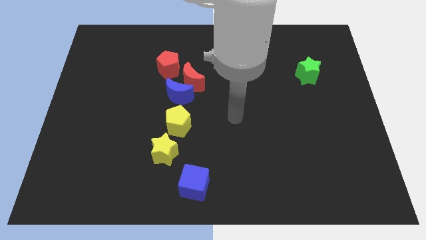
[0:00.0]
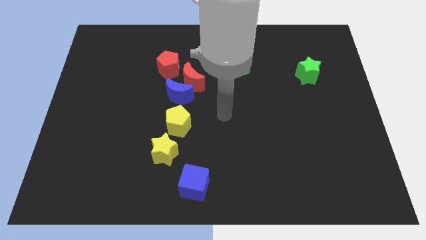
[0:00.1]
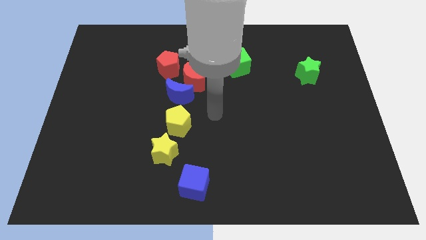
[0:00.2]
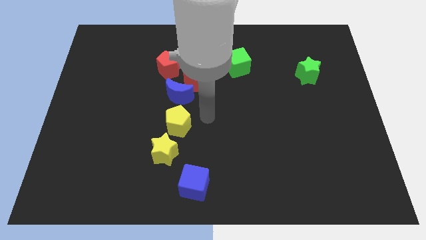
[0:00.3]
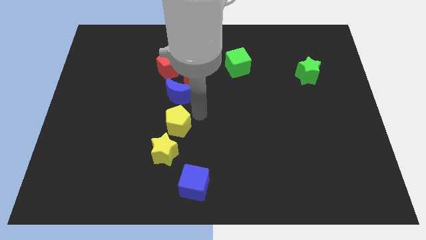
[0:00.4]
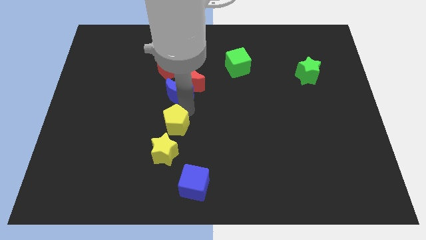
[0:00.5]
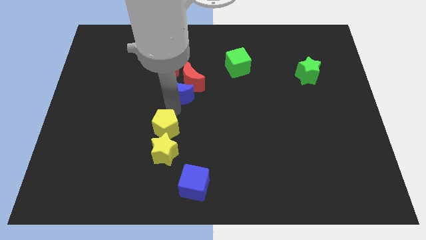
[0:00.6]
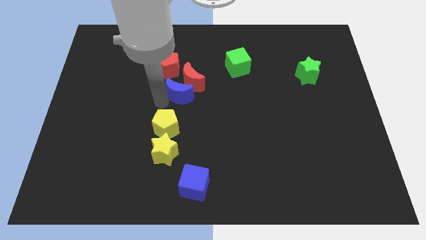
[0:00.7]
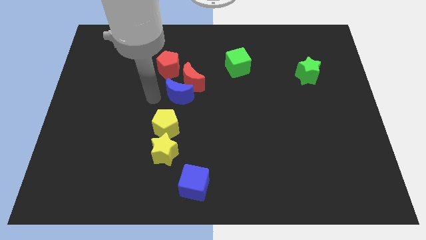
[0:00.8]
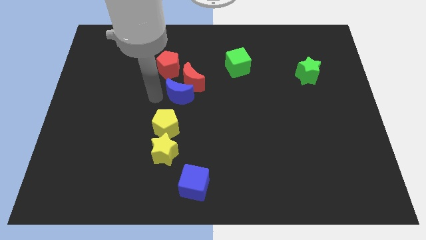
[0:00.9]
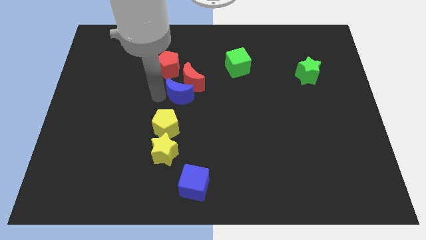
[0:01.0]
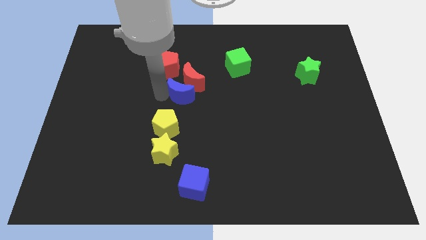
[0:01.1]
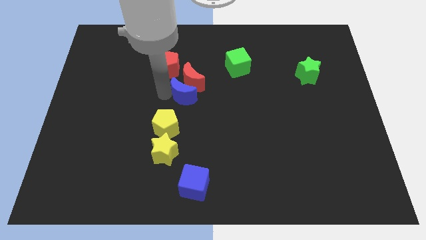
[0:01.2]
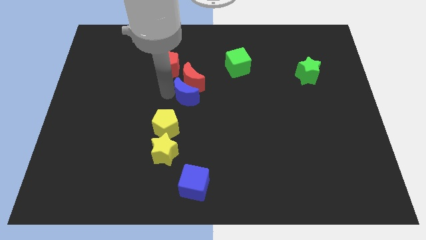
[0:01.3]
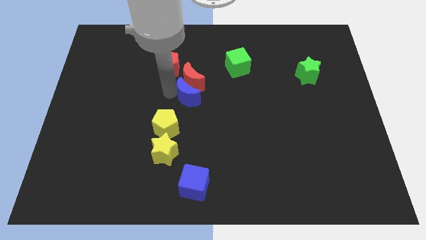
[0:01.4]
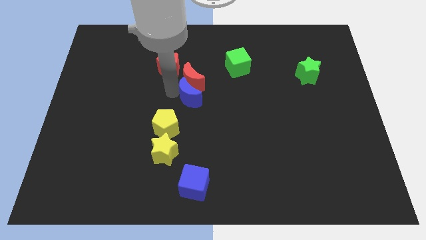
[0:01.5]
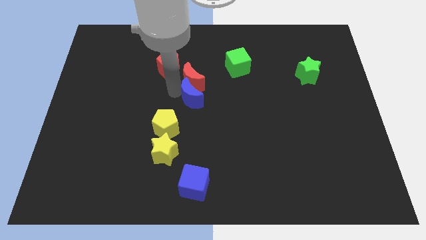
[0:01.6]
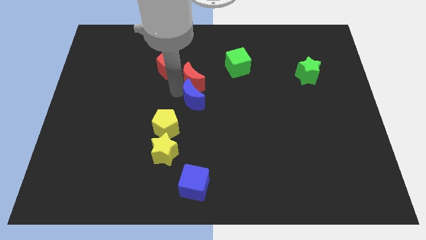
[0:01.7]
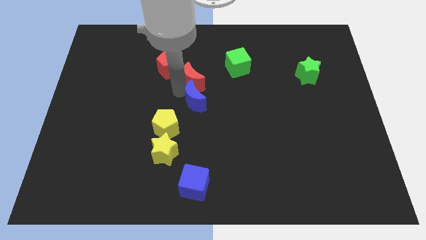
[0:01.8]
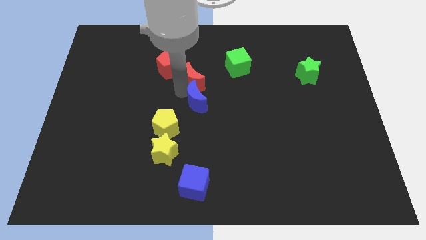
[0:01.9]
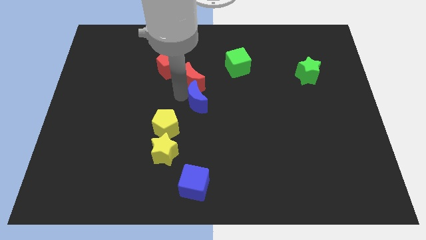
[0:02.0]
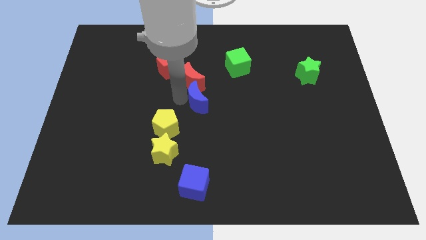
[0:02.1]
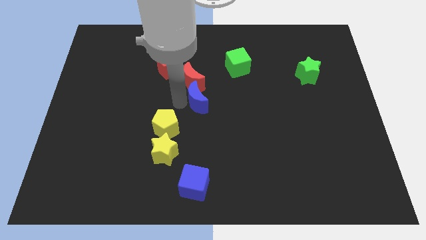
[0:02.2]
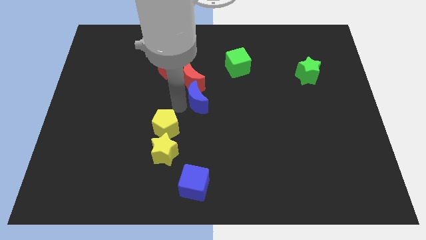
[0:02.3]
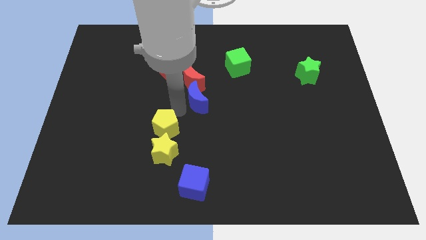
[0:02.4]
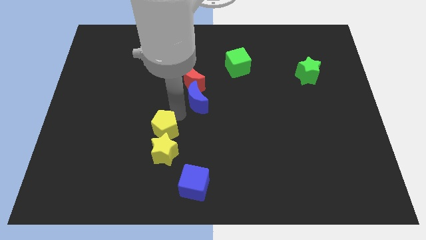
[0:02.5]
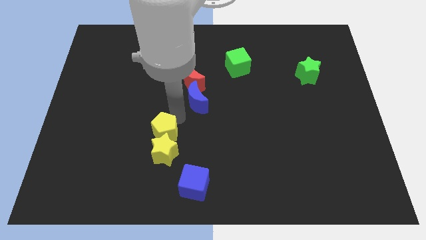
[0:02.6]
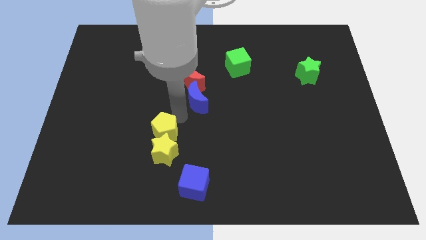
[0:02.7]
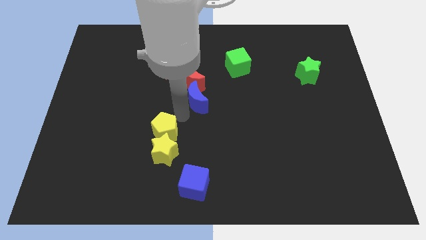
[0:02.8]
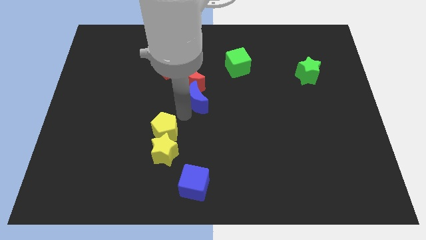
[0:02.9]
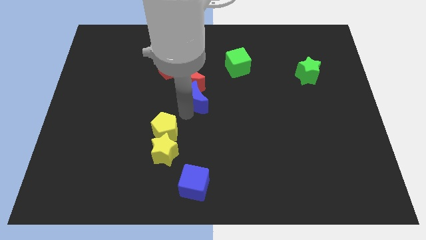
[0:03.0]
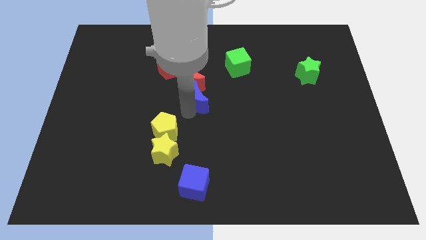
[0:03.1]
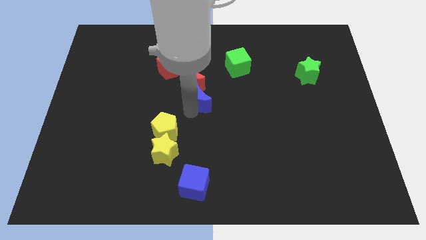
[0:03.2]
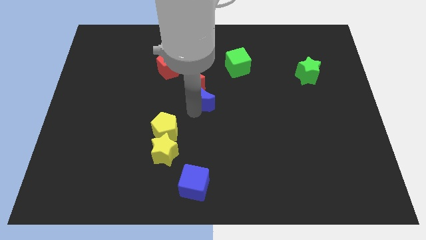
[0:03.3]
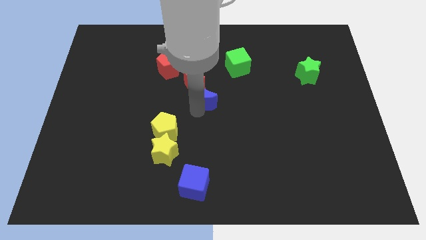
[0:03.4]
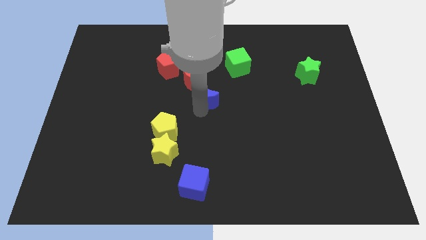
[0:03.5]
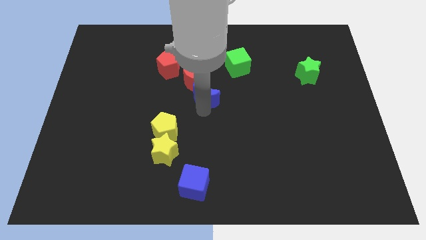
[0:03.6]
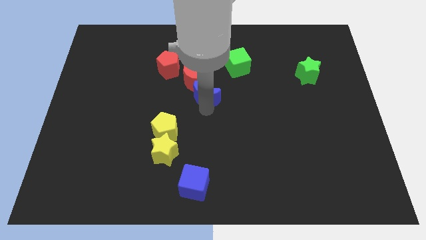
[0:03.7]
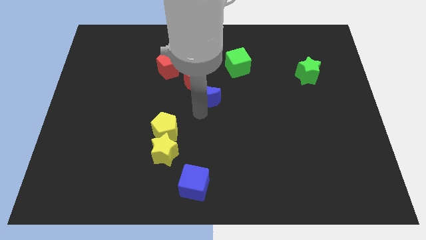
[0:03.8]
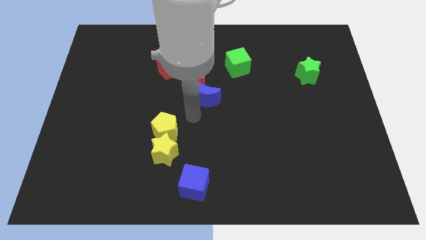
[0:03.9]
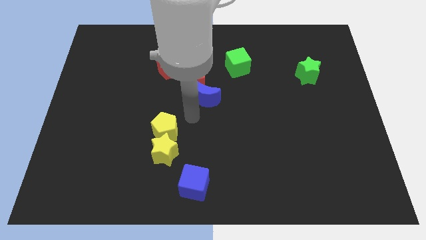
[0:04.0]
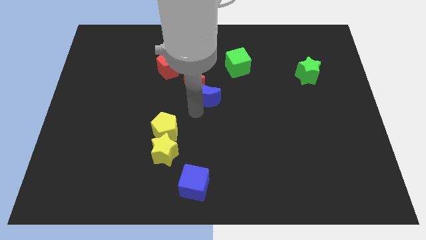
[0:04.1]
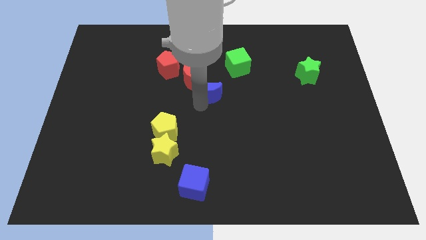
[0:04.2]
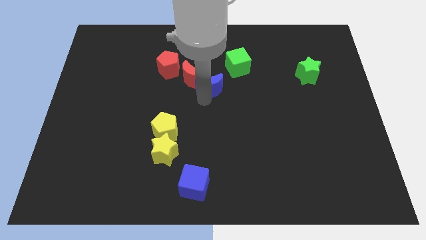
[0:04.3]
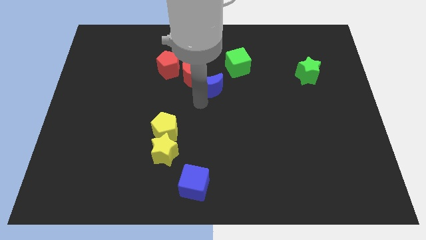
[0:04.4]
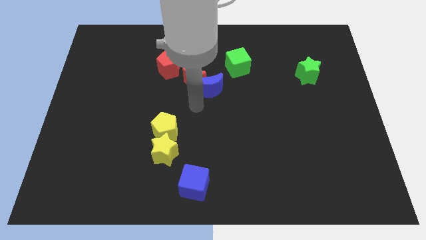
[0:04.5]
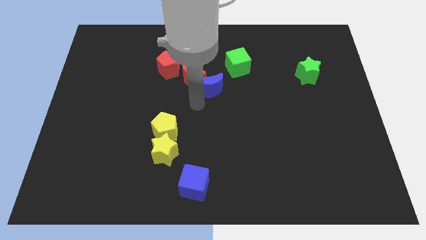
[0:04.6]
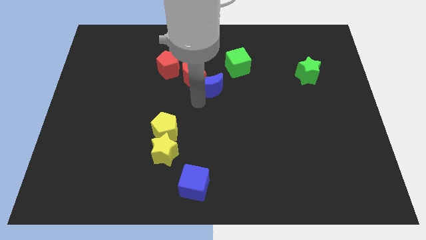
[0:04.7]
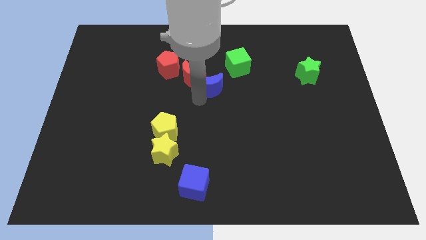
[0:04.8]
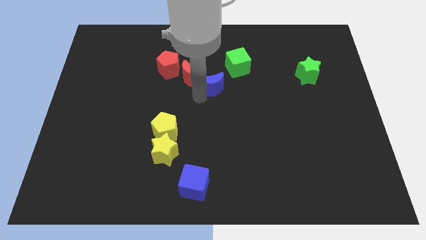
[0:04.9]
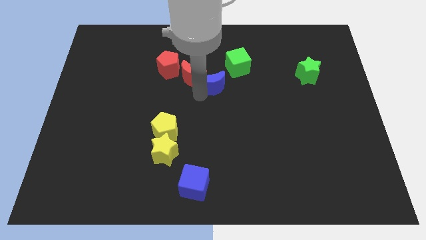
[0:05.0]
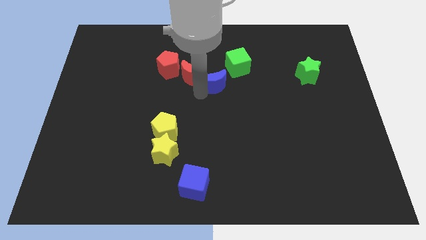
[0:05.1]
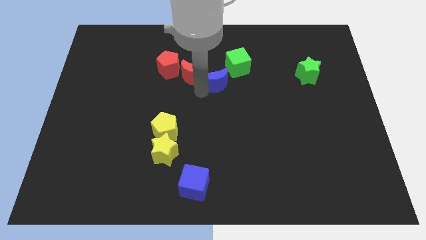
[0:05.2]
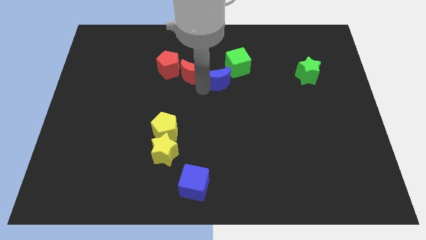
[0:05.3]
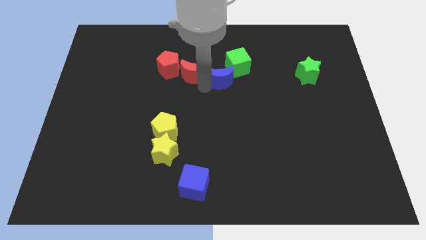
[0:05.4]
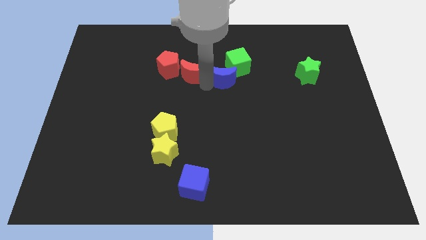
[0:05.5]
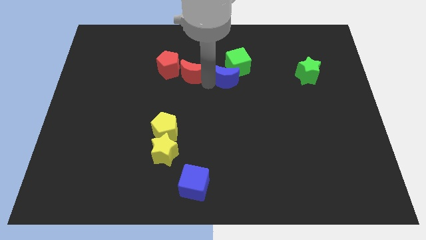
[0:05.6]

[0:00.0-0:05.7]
move the blue moon towards the green cube
